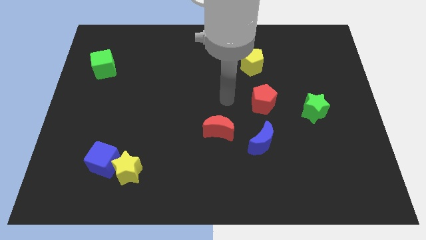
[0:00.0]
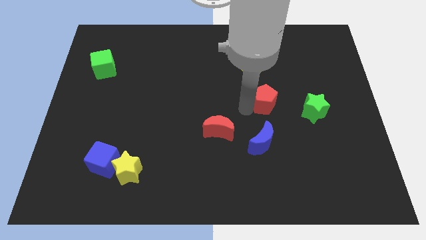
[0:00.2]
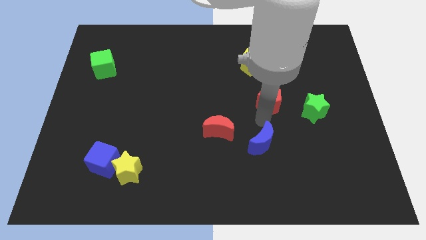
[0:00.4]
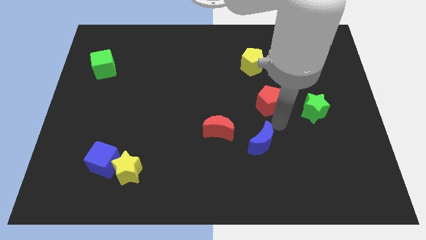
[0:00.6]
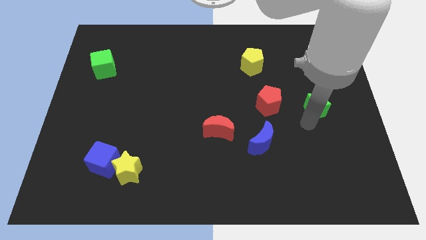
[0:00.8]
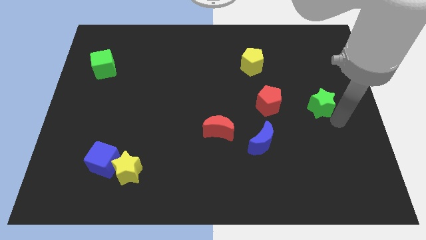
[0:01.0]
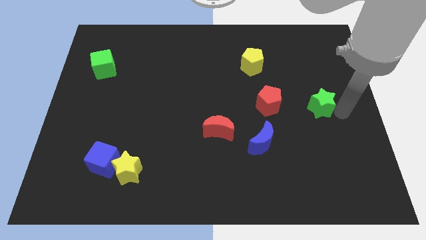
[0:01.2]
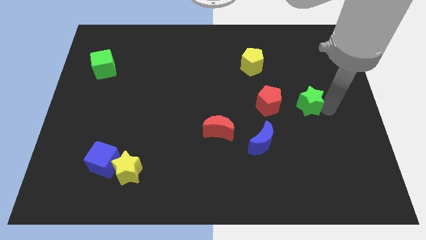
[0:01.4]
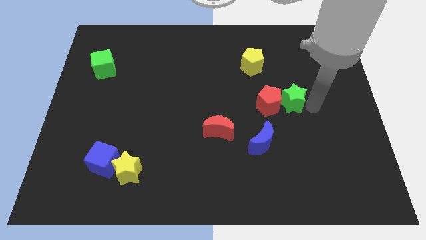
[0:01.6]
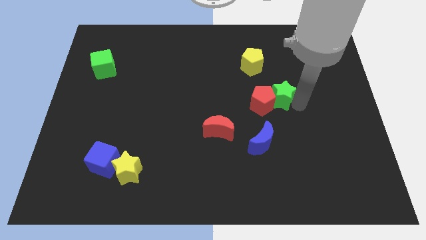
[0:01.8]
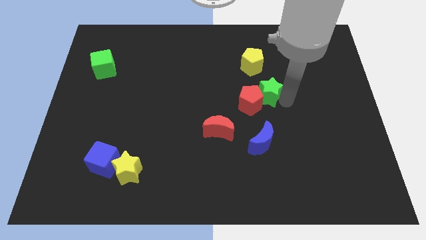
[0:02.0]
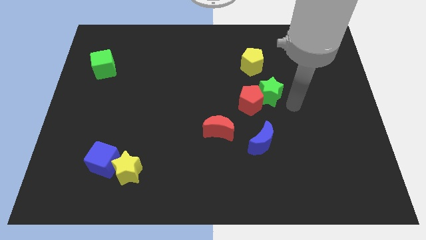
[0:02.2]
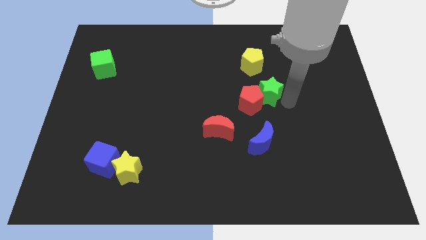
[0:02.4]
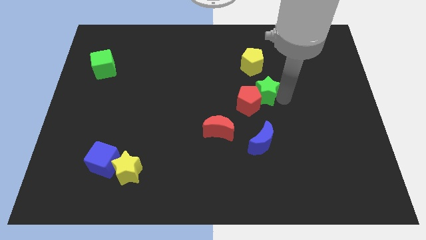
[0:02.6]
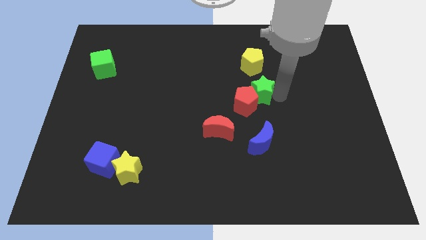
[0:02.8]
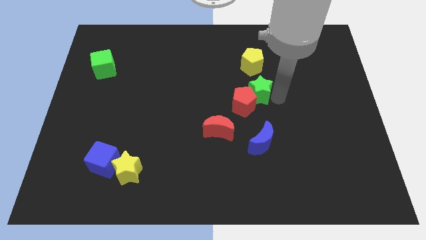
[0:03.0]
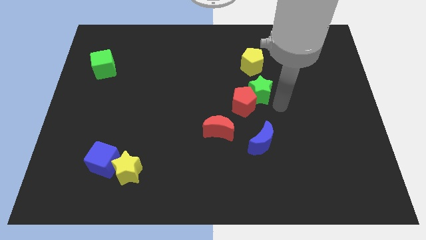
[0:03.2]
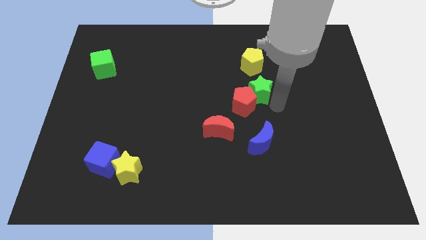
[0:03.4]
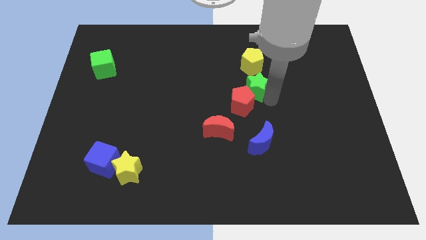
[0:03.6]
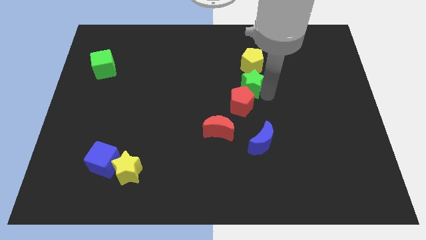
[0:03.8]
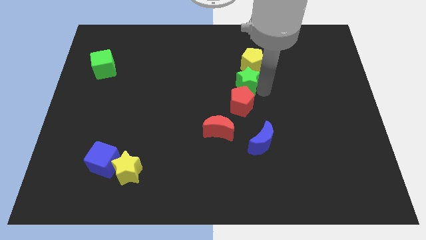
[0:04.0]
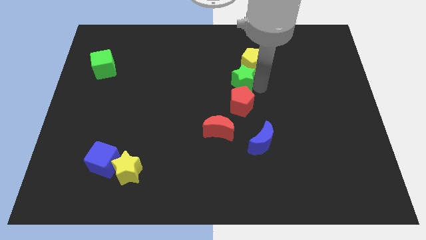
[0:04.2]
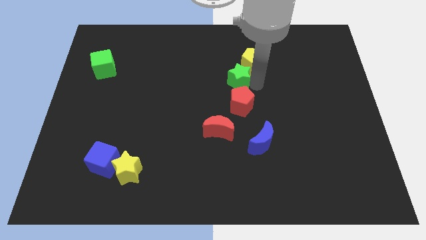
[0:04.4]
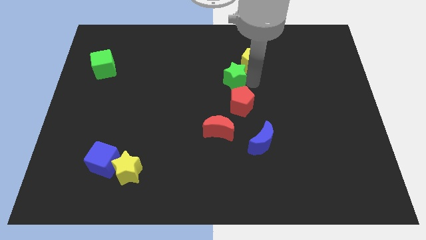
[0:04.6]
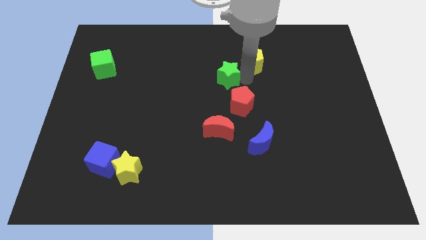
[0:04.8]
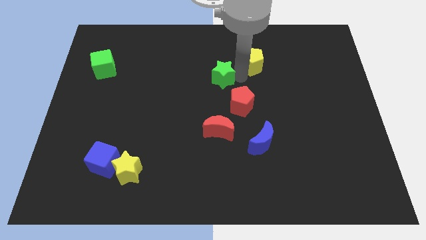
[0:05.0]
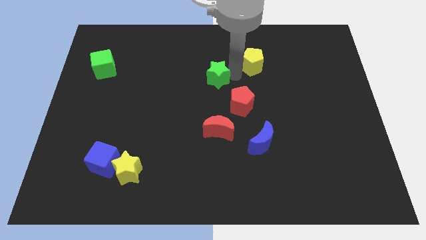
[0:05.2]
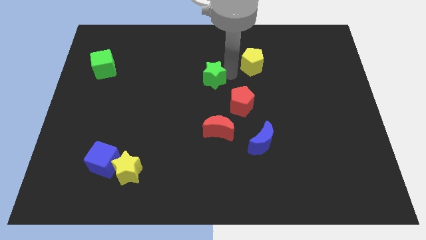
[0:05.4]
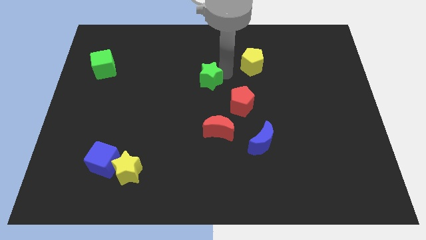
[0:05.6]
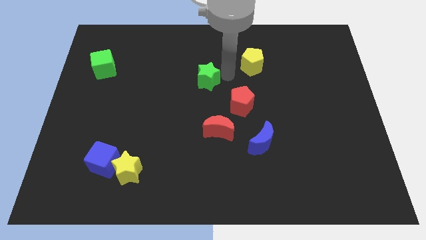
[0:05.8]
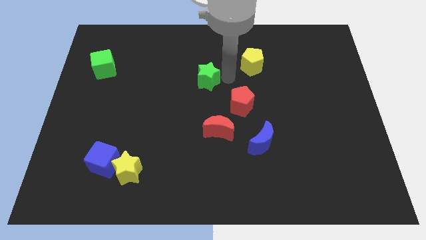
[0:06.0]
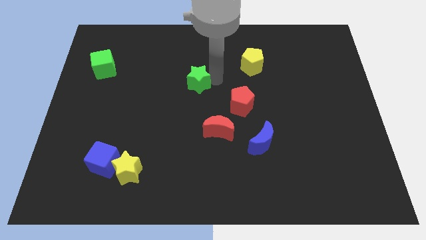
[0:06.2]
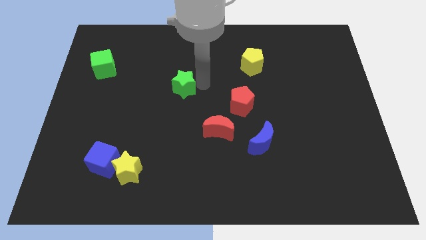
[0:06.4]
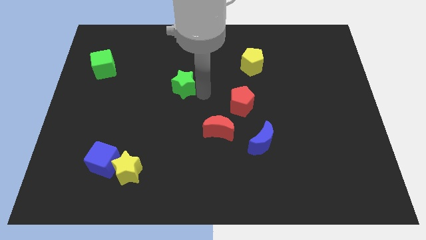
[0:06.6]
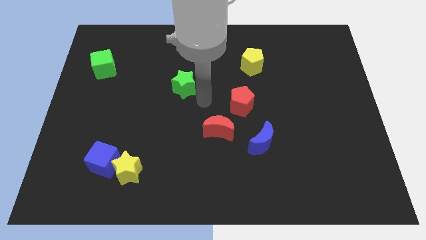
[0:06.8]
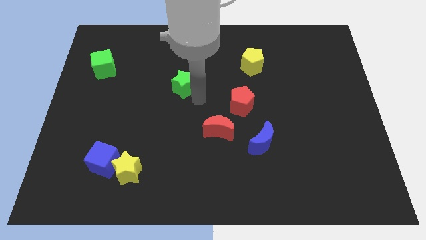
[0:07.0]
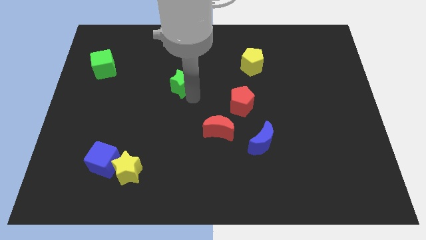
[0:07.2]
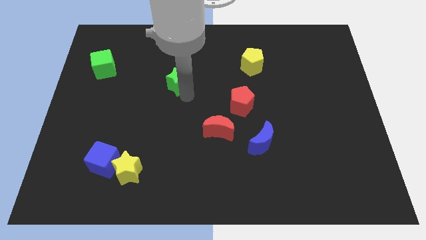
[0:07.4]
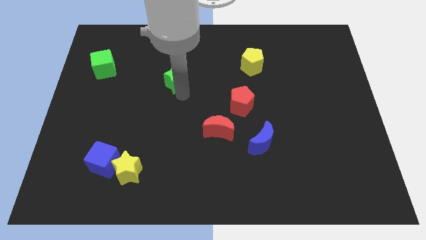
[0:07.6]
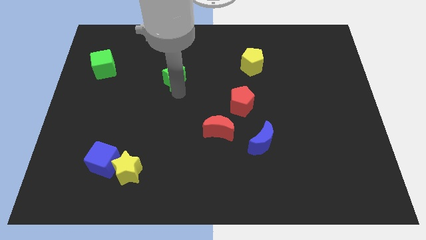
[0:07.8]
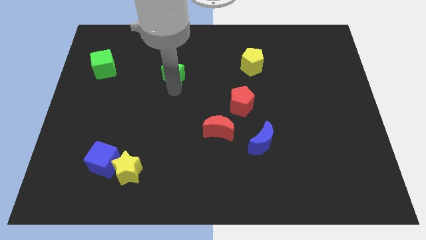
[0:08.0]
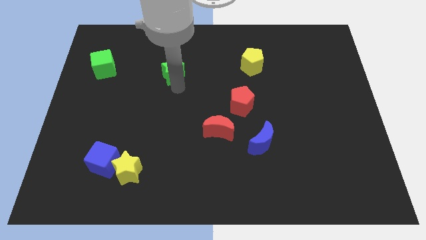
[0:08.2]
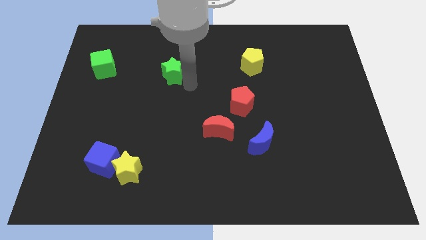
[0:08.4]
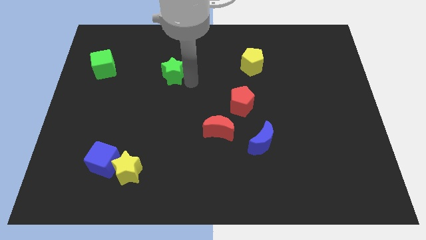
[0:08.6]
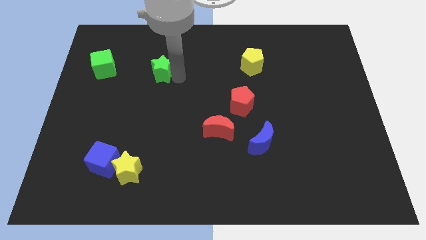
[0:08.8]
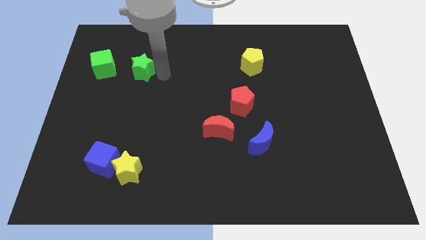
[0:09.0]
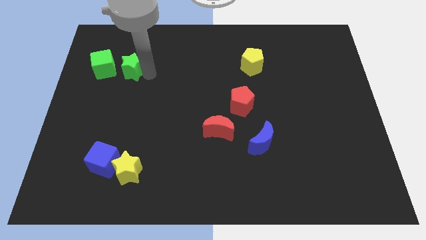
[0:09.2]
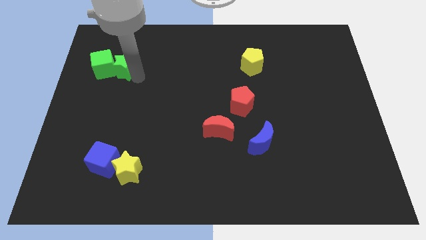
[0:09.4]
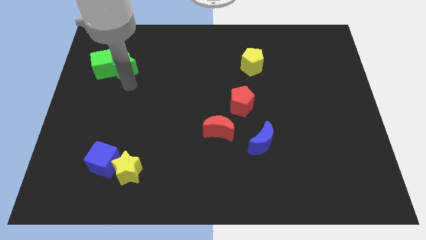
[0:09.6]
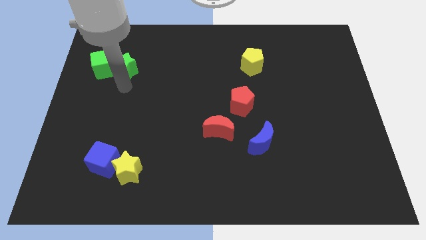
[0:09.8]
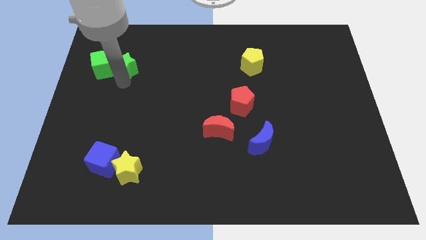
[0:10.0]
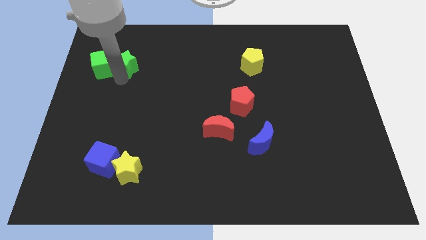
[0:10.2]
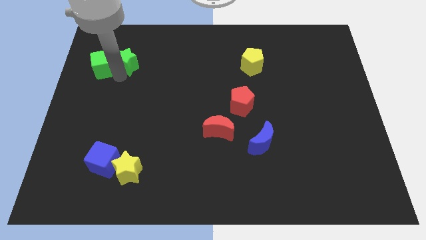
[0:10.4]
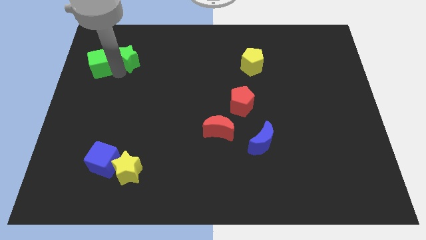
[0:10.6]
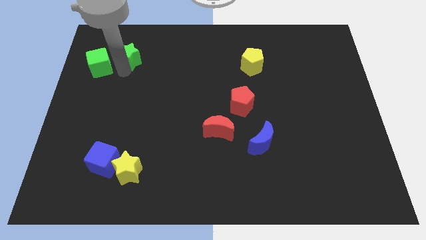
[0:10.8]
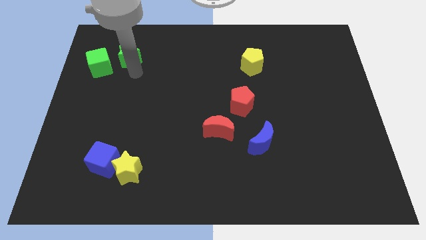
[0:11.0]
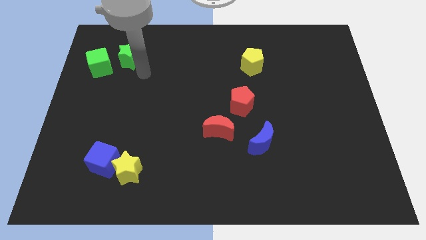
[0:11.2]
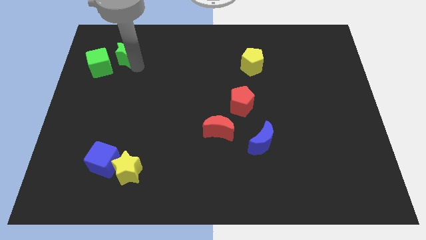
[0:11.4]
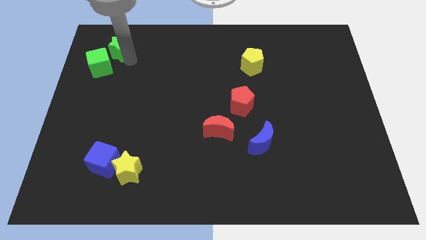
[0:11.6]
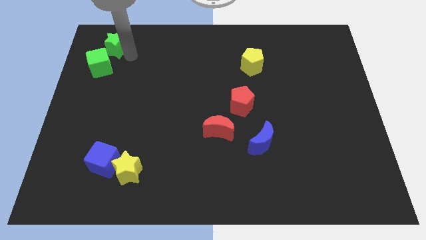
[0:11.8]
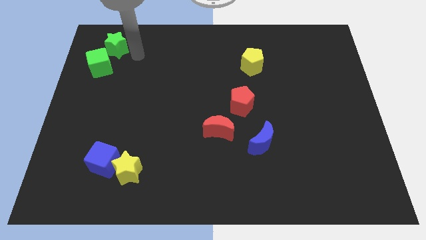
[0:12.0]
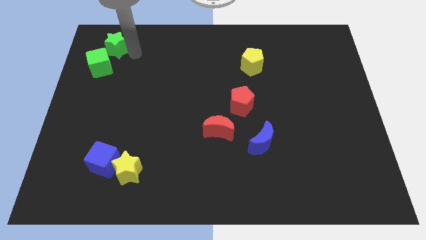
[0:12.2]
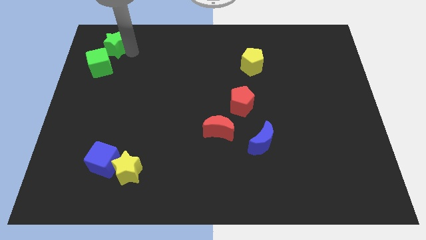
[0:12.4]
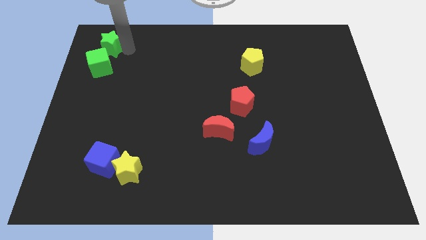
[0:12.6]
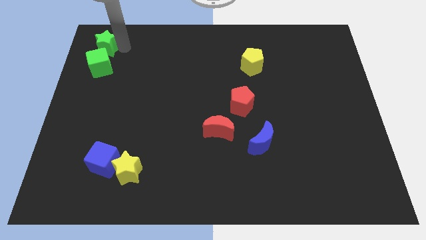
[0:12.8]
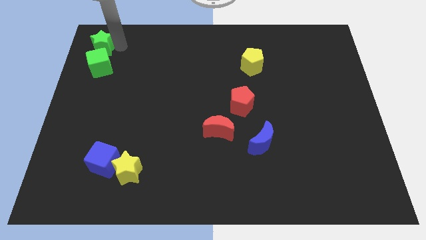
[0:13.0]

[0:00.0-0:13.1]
put the green star to the top left corner
